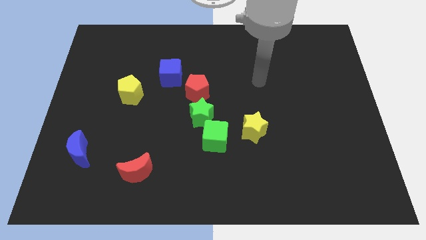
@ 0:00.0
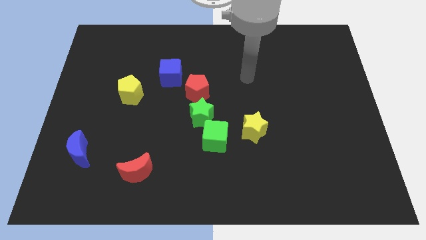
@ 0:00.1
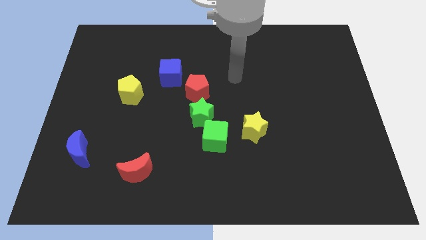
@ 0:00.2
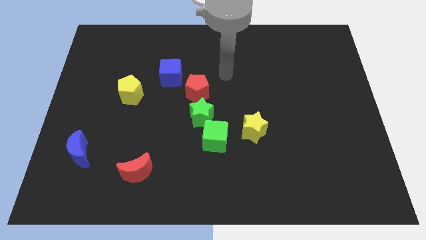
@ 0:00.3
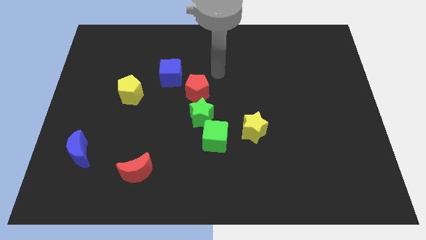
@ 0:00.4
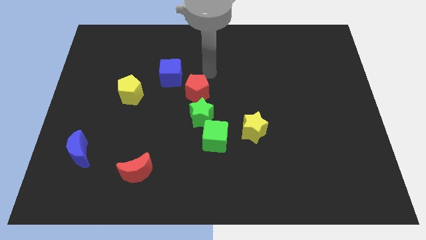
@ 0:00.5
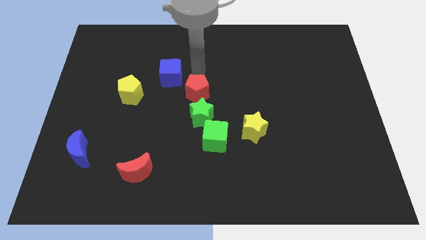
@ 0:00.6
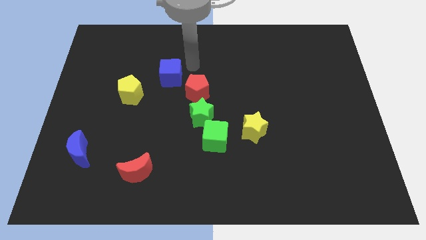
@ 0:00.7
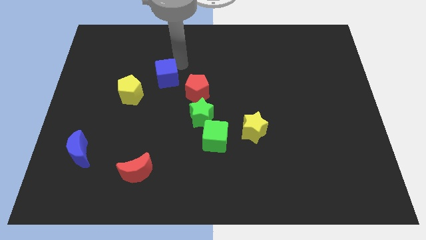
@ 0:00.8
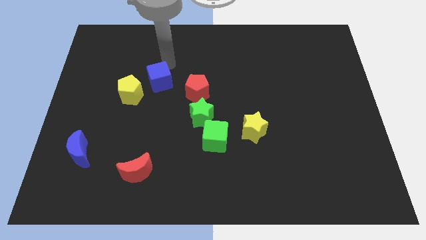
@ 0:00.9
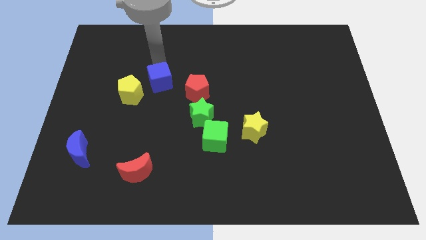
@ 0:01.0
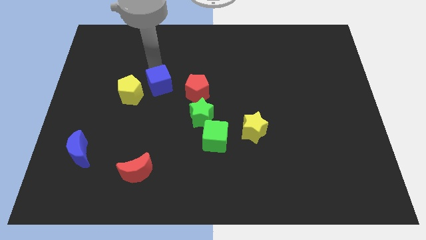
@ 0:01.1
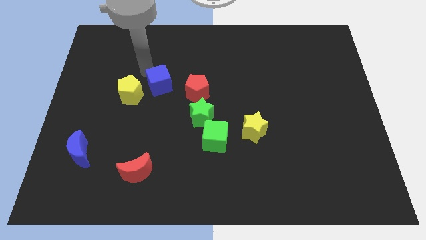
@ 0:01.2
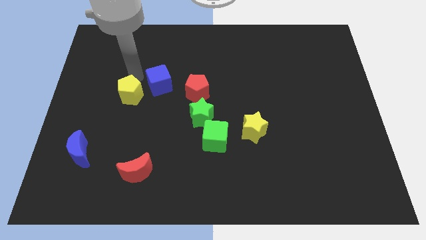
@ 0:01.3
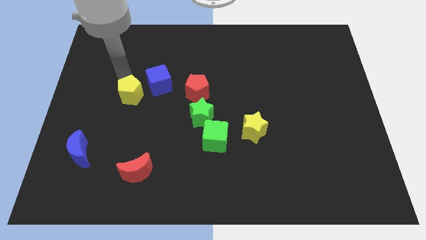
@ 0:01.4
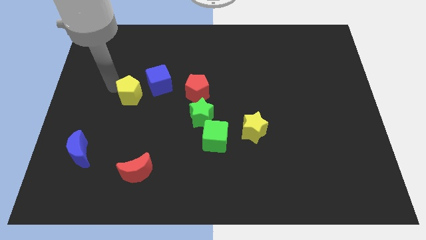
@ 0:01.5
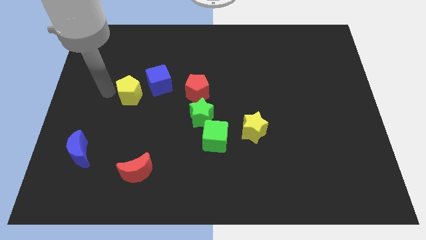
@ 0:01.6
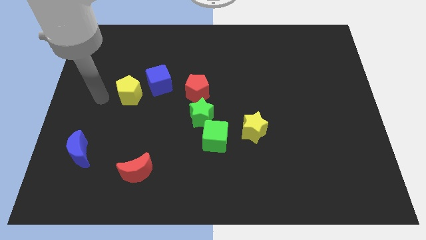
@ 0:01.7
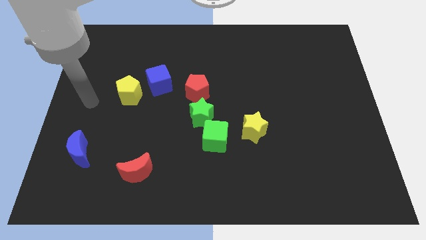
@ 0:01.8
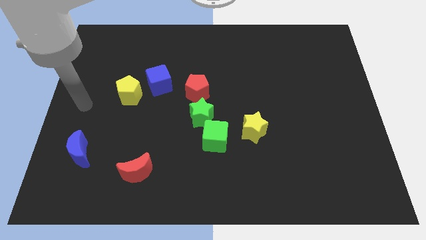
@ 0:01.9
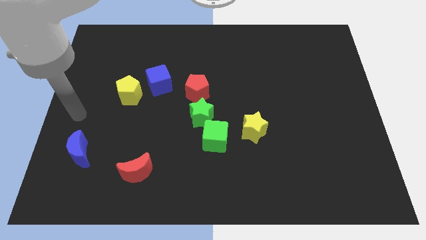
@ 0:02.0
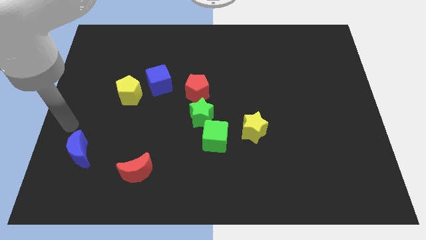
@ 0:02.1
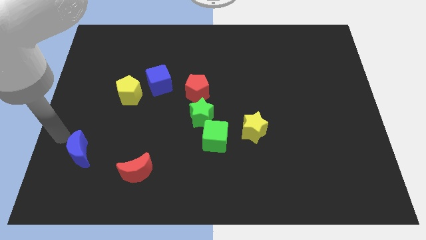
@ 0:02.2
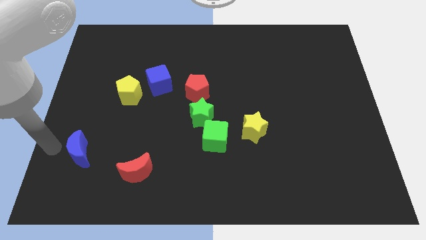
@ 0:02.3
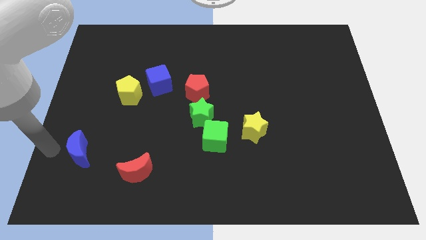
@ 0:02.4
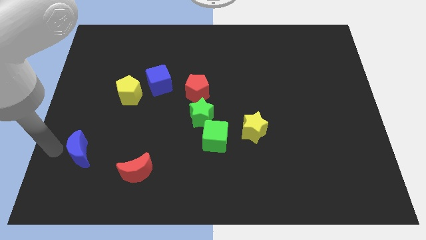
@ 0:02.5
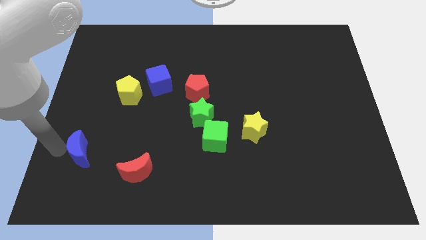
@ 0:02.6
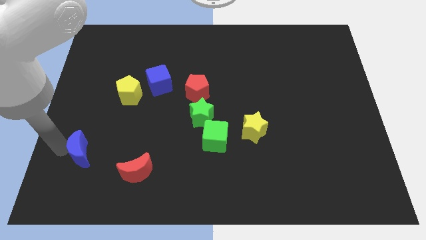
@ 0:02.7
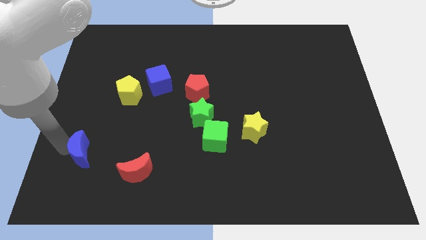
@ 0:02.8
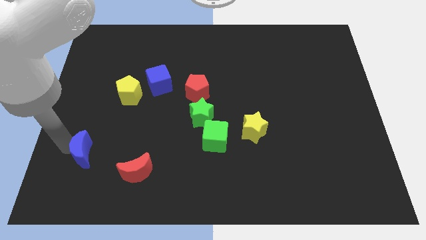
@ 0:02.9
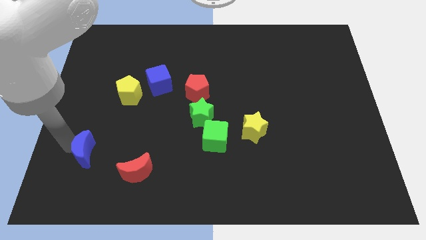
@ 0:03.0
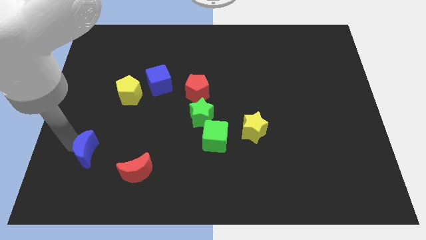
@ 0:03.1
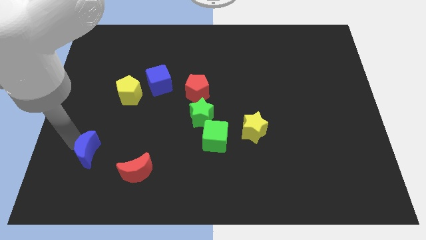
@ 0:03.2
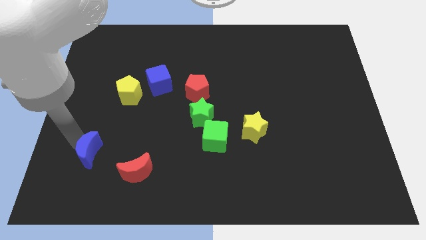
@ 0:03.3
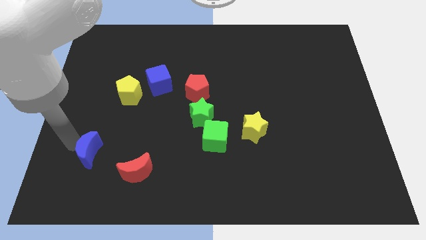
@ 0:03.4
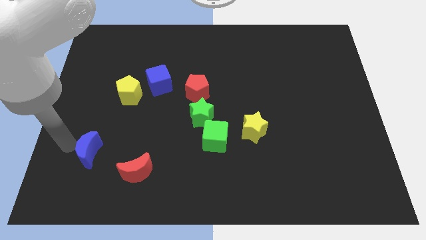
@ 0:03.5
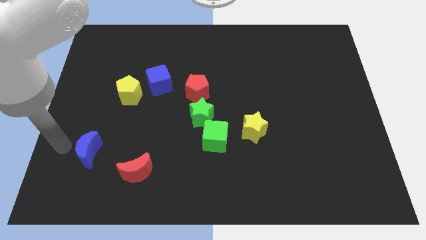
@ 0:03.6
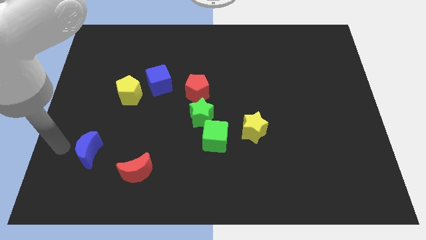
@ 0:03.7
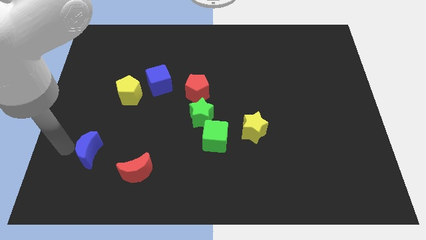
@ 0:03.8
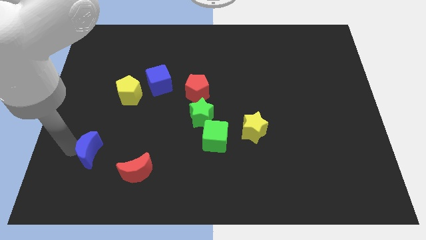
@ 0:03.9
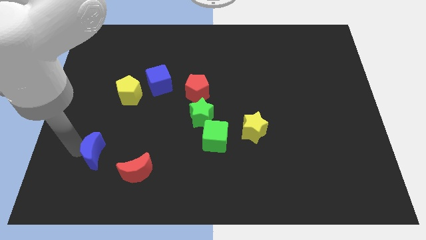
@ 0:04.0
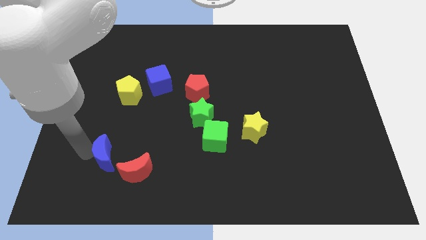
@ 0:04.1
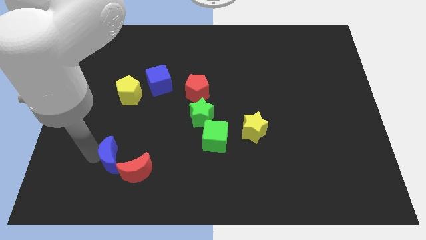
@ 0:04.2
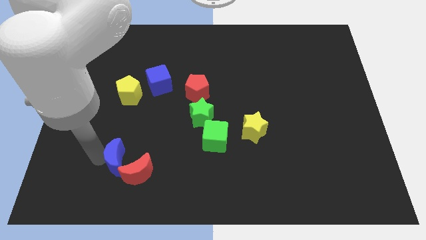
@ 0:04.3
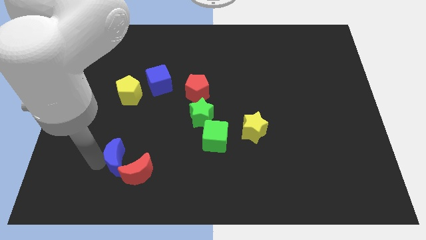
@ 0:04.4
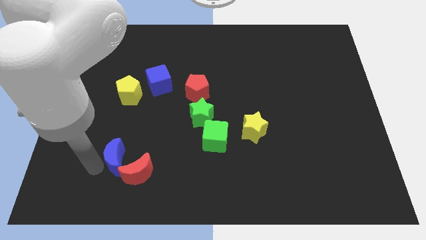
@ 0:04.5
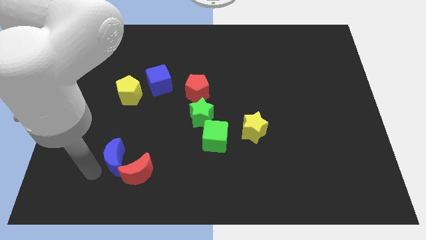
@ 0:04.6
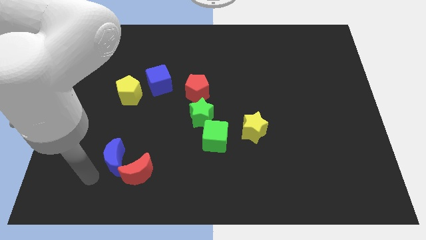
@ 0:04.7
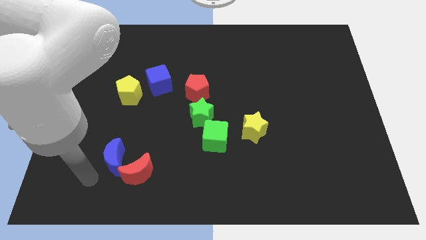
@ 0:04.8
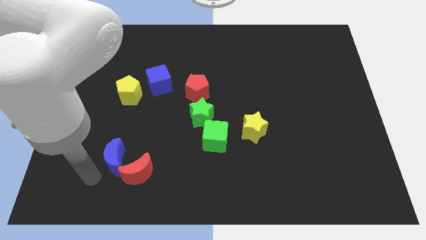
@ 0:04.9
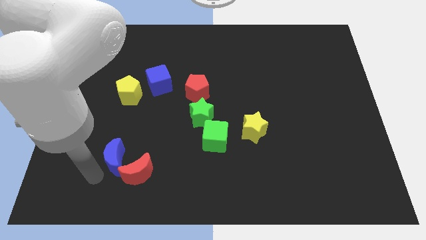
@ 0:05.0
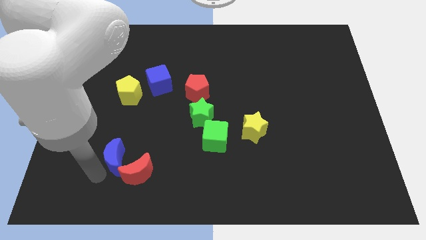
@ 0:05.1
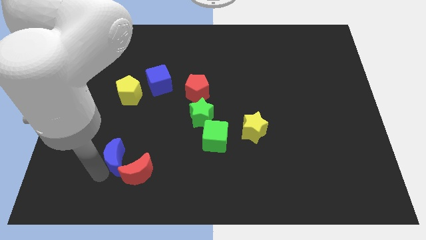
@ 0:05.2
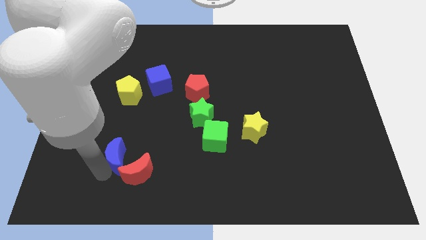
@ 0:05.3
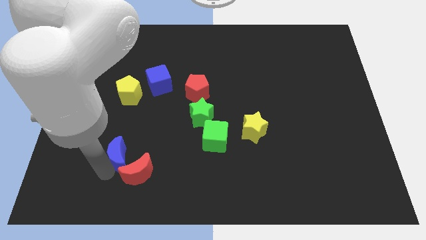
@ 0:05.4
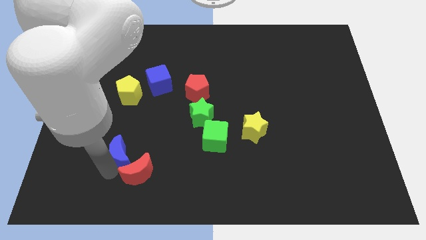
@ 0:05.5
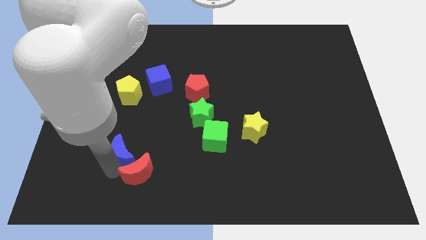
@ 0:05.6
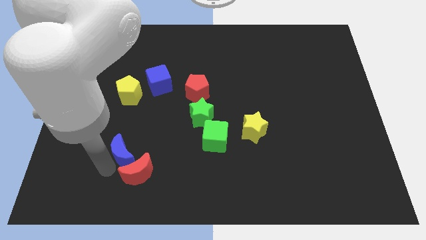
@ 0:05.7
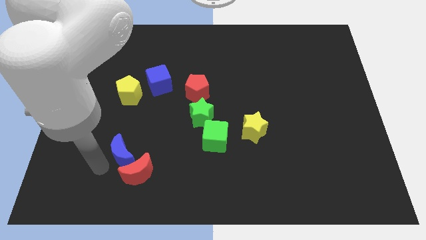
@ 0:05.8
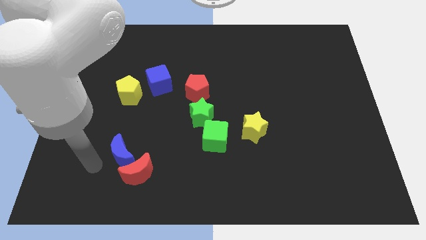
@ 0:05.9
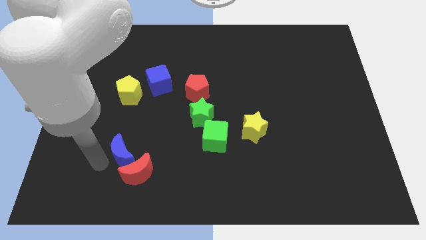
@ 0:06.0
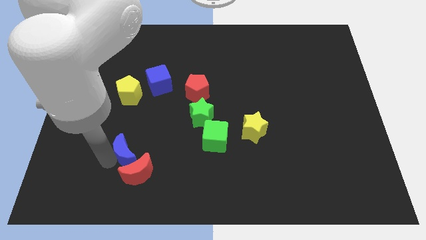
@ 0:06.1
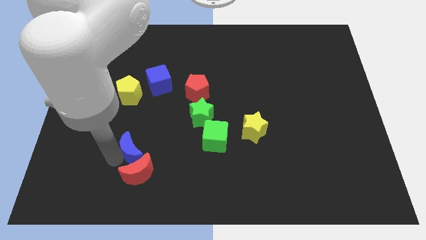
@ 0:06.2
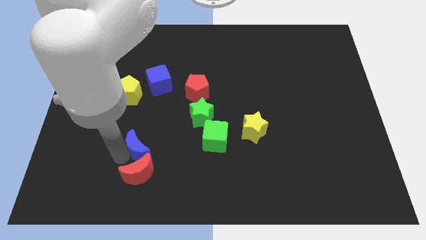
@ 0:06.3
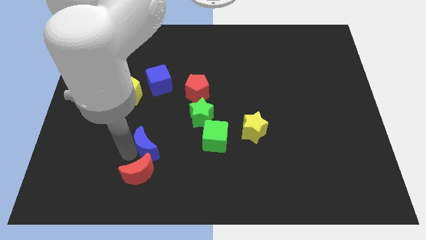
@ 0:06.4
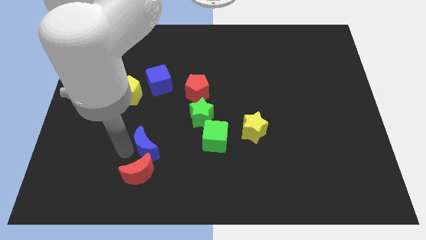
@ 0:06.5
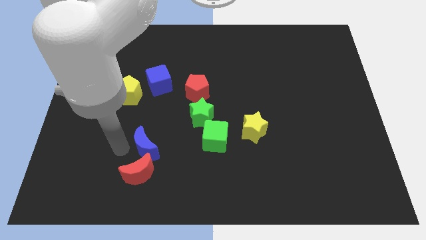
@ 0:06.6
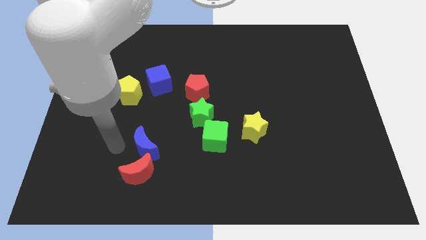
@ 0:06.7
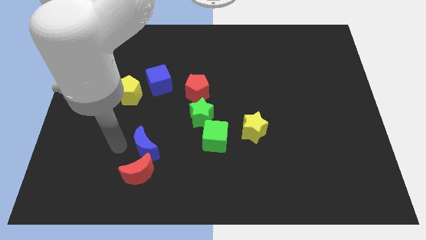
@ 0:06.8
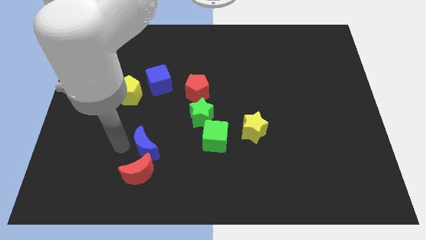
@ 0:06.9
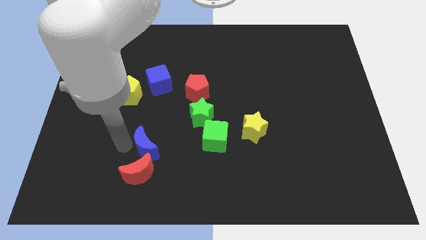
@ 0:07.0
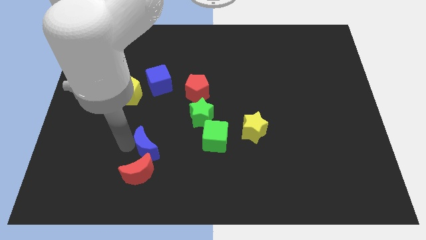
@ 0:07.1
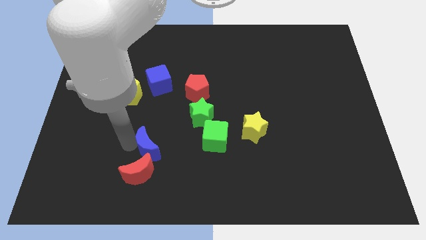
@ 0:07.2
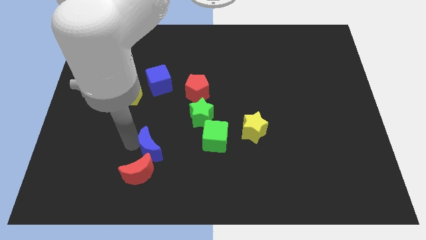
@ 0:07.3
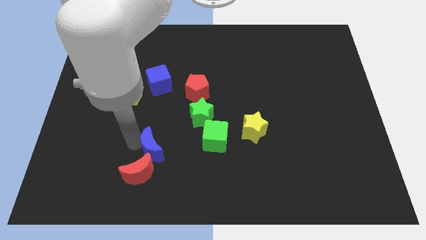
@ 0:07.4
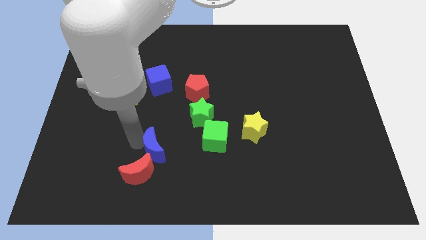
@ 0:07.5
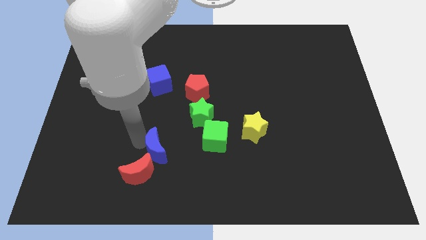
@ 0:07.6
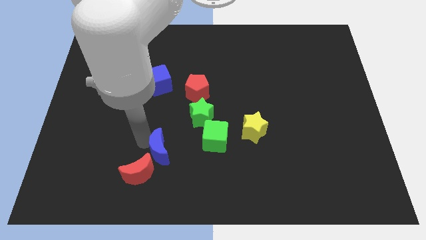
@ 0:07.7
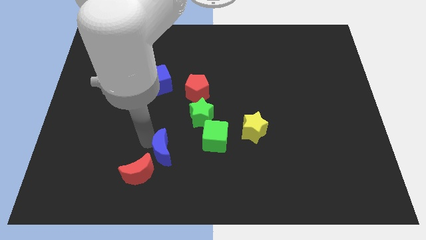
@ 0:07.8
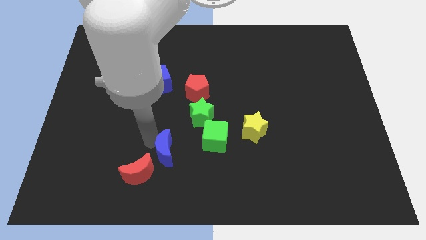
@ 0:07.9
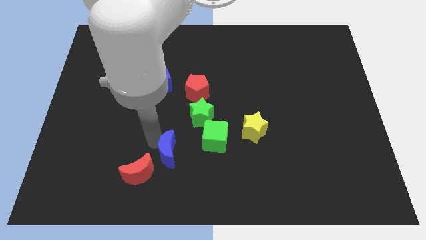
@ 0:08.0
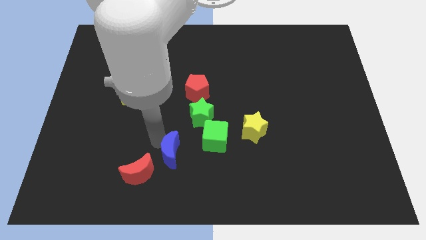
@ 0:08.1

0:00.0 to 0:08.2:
put the blue moon to the bottom left side of the green cube
